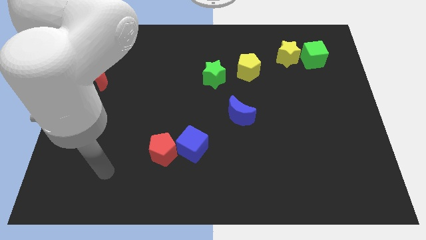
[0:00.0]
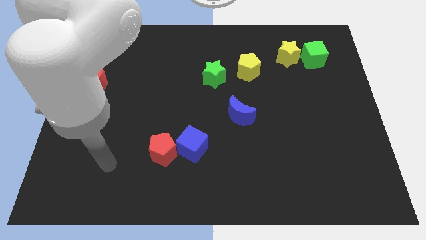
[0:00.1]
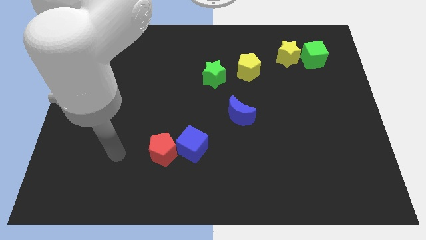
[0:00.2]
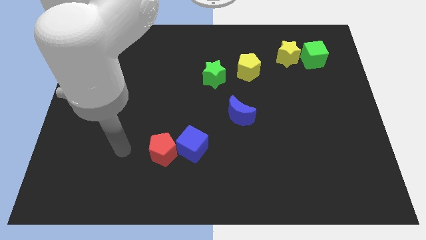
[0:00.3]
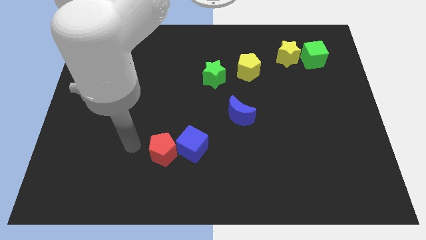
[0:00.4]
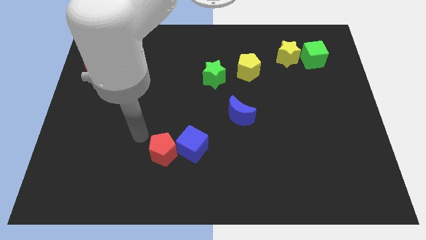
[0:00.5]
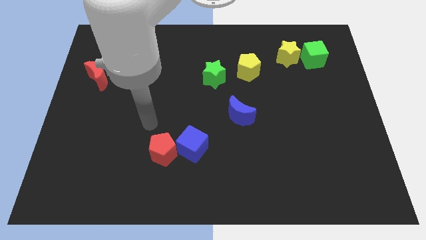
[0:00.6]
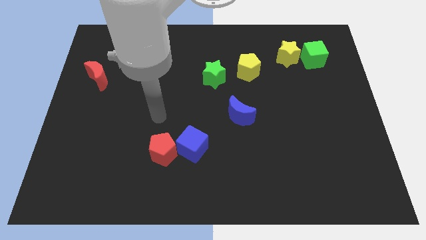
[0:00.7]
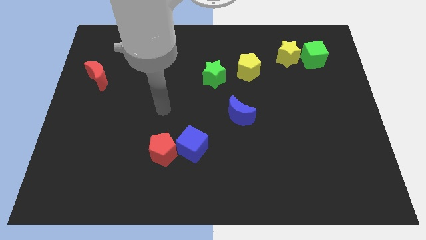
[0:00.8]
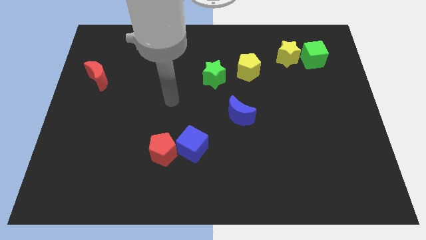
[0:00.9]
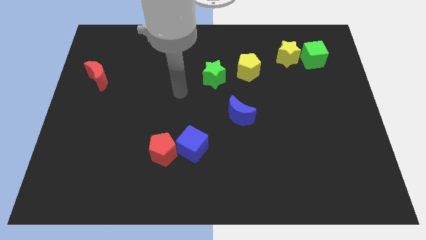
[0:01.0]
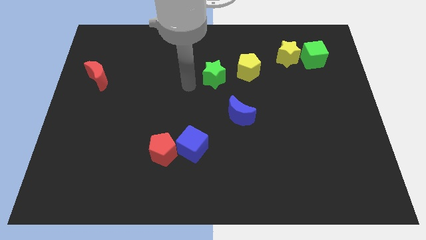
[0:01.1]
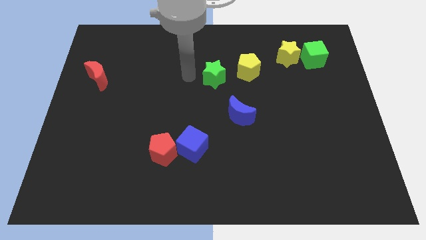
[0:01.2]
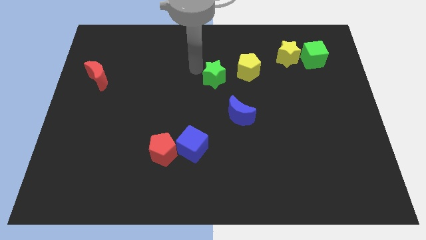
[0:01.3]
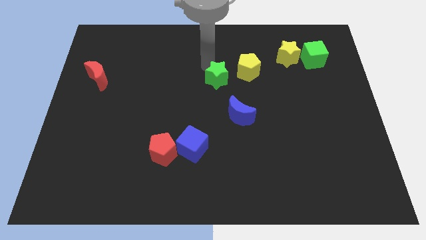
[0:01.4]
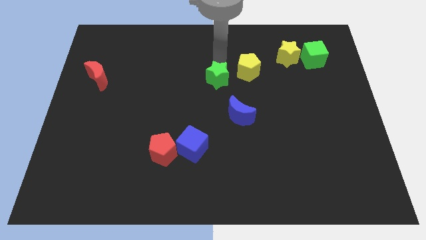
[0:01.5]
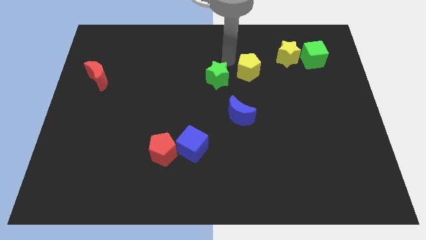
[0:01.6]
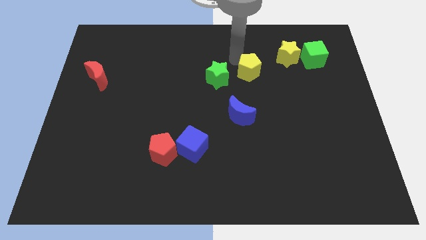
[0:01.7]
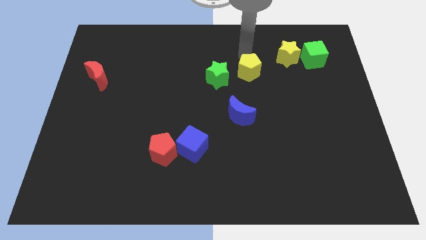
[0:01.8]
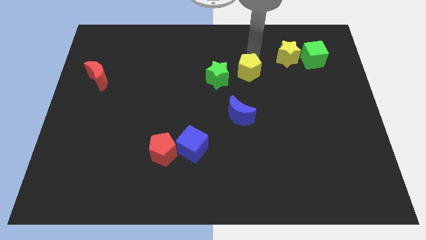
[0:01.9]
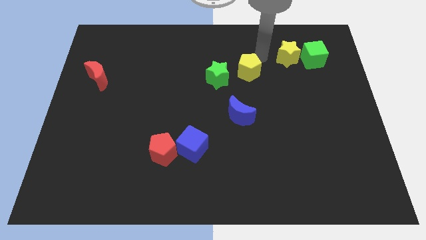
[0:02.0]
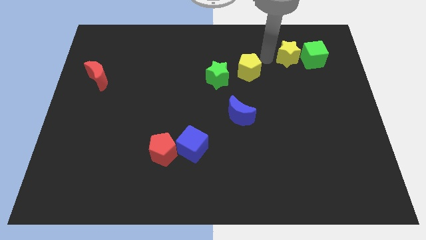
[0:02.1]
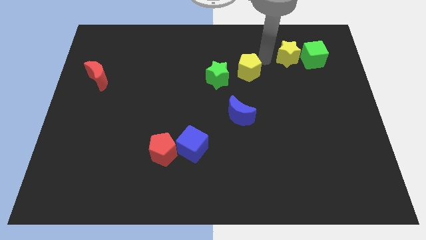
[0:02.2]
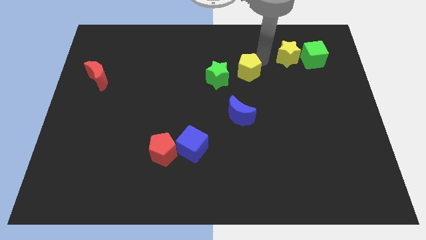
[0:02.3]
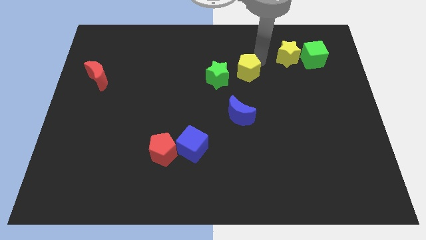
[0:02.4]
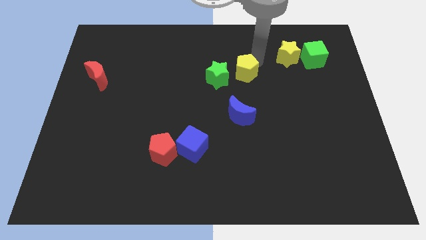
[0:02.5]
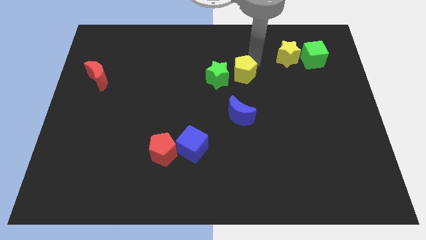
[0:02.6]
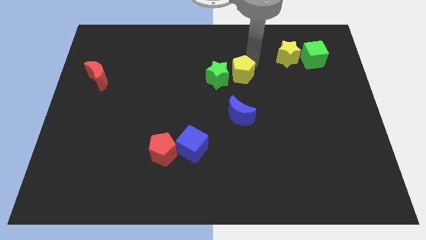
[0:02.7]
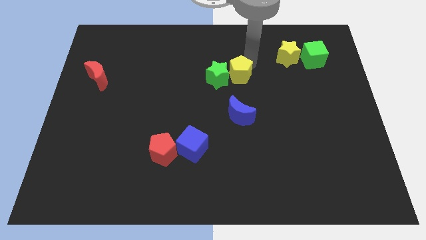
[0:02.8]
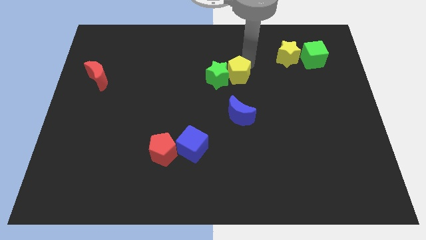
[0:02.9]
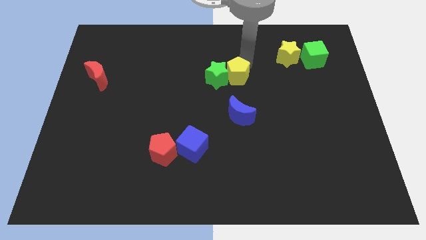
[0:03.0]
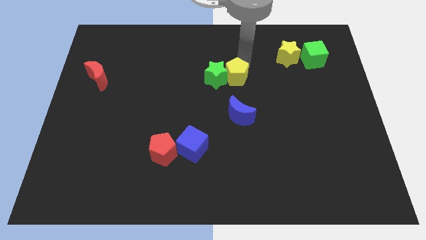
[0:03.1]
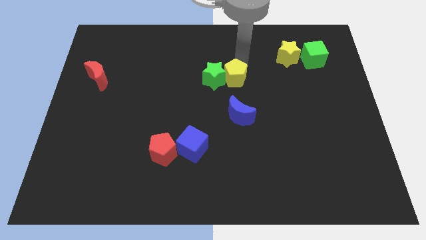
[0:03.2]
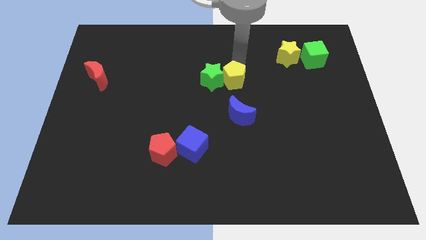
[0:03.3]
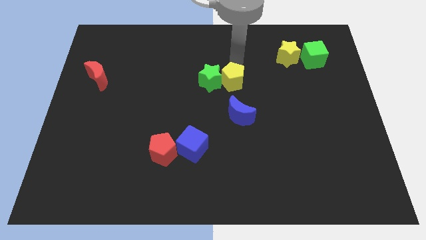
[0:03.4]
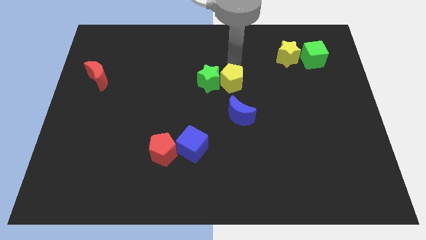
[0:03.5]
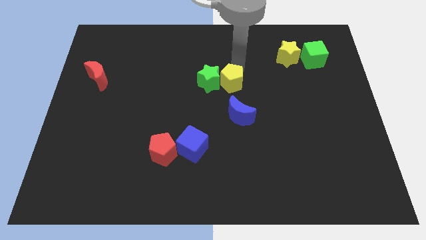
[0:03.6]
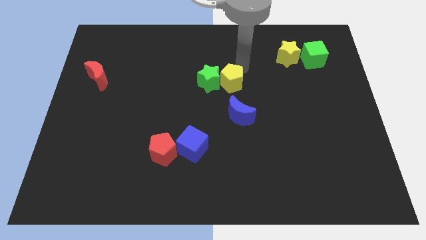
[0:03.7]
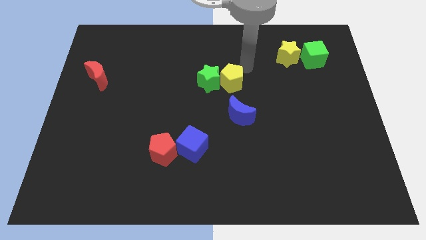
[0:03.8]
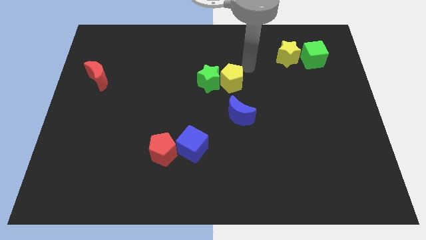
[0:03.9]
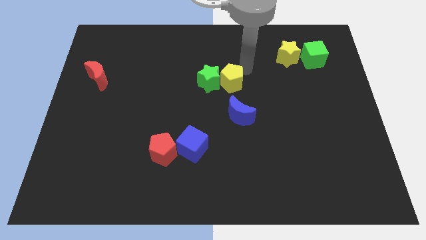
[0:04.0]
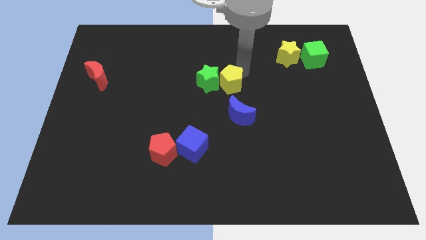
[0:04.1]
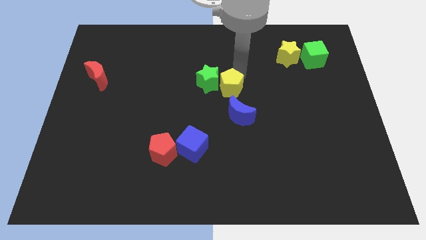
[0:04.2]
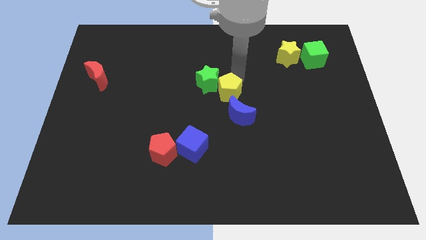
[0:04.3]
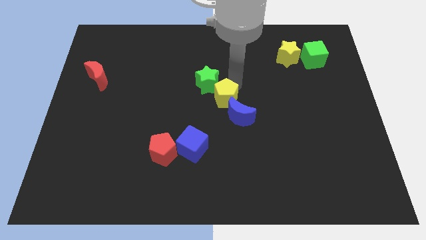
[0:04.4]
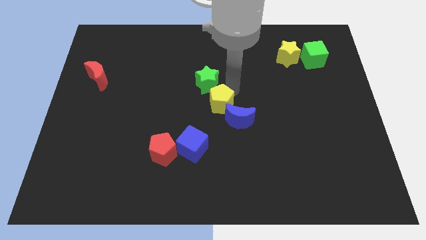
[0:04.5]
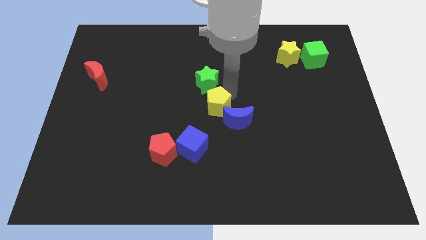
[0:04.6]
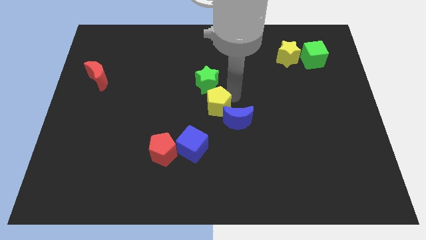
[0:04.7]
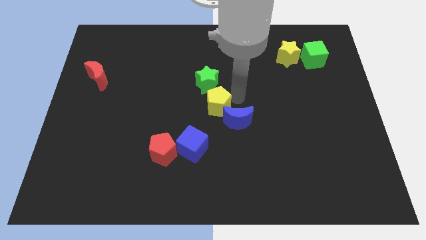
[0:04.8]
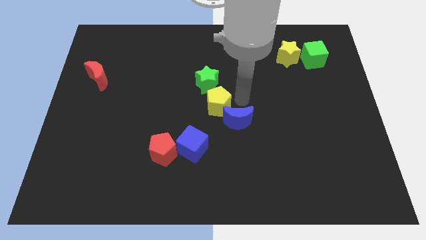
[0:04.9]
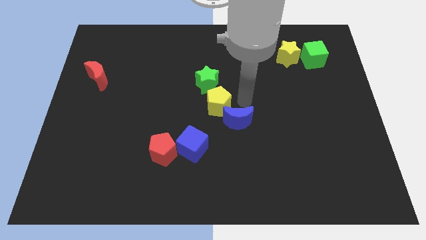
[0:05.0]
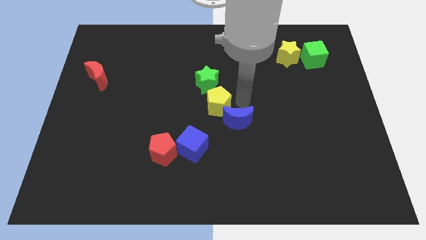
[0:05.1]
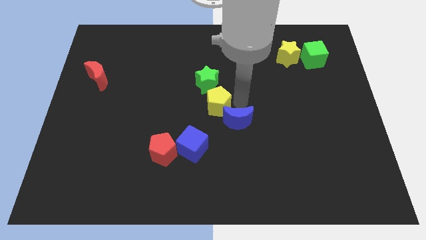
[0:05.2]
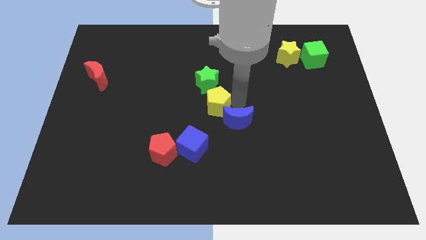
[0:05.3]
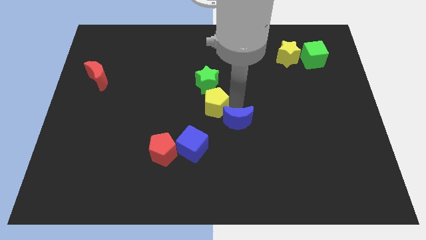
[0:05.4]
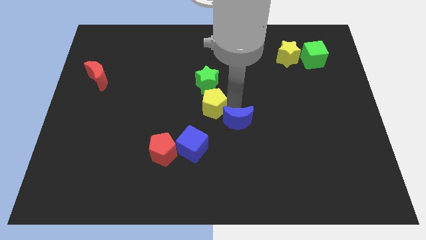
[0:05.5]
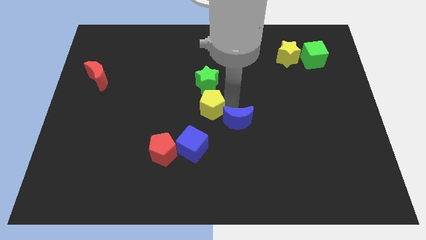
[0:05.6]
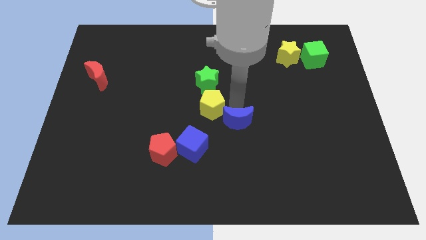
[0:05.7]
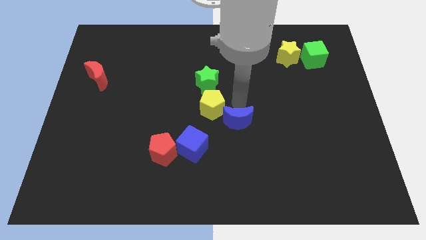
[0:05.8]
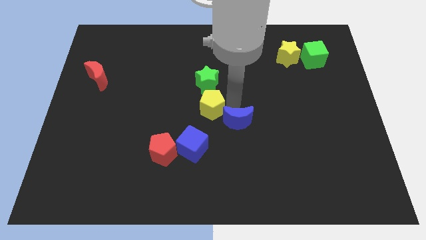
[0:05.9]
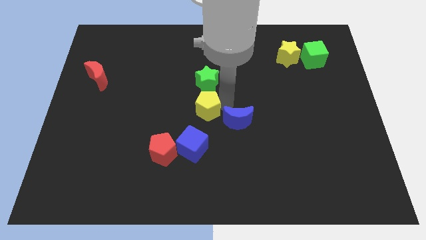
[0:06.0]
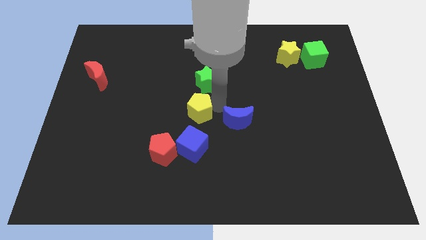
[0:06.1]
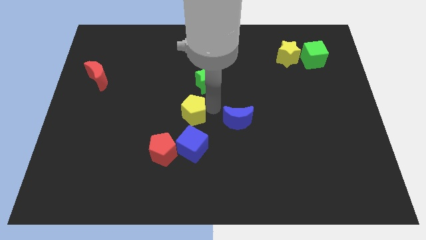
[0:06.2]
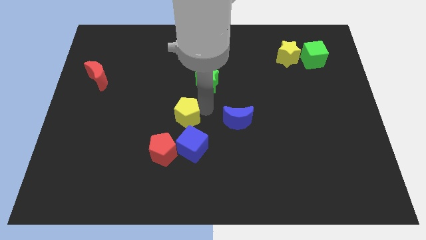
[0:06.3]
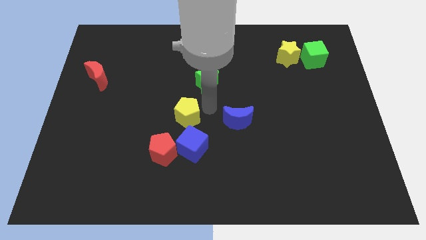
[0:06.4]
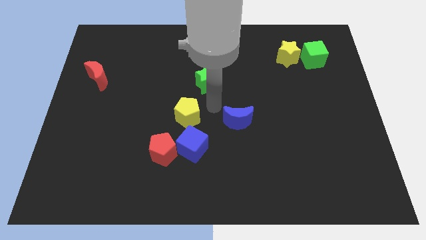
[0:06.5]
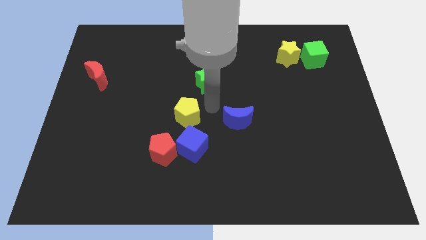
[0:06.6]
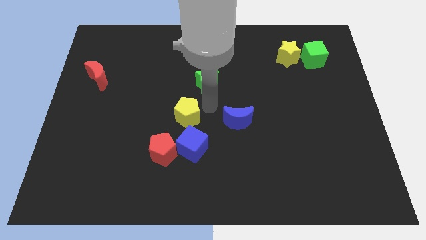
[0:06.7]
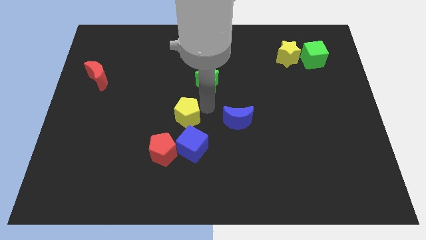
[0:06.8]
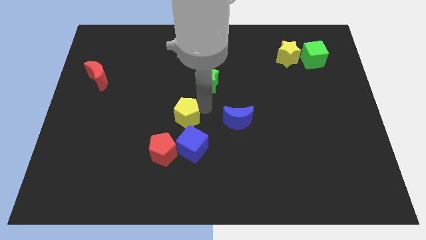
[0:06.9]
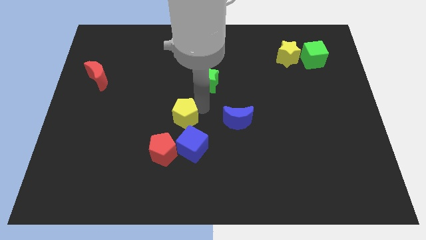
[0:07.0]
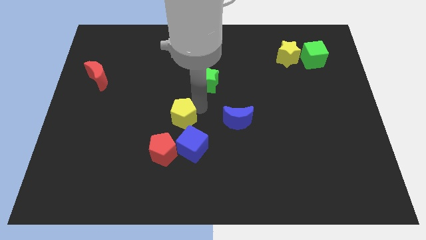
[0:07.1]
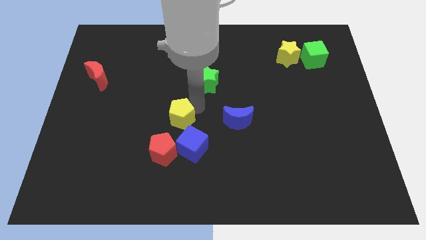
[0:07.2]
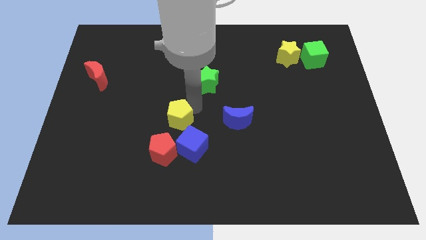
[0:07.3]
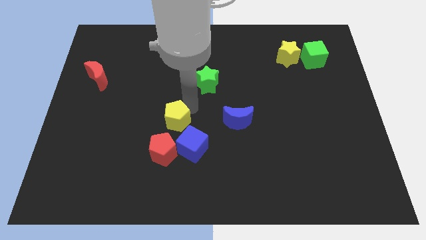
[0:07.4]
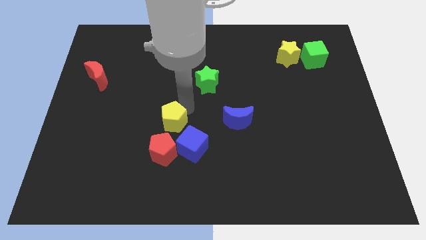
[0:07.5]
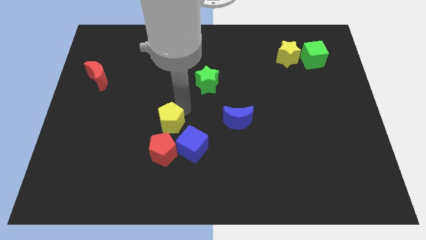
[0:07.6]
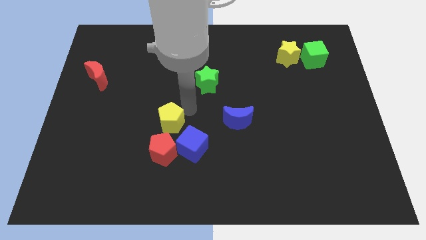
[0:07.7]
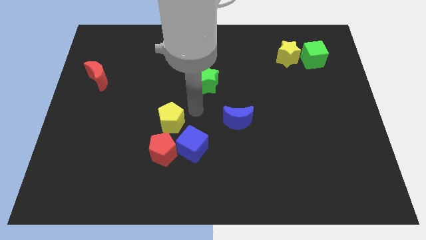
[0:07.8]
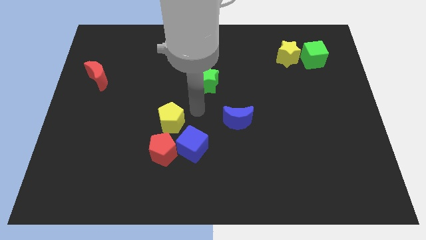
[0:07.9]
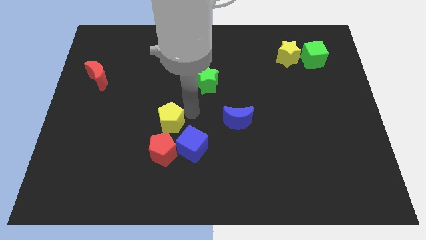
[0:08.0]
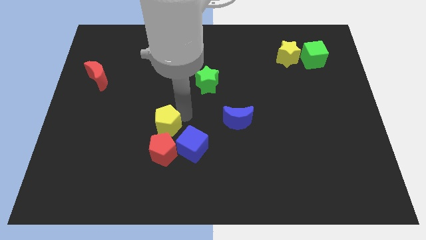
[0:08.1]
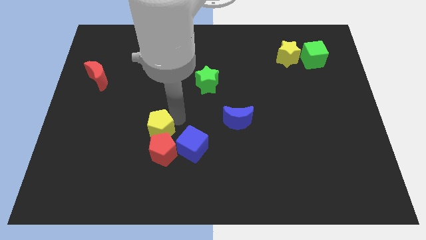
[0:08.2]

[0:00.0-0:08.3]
move the yellow pentagon to the top left side of the red pentagon
